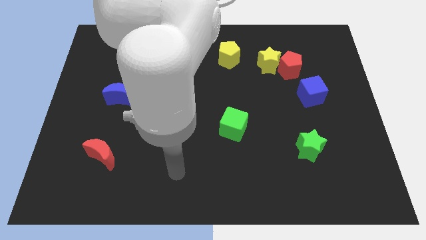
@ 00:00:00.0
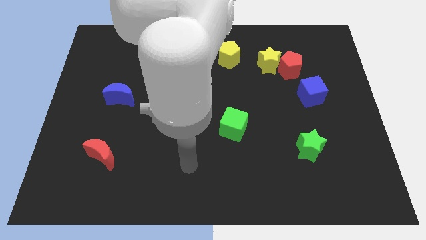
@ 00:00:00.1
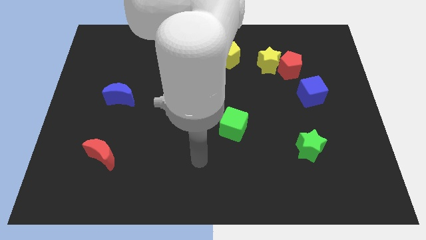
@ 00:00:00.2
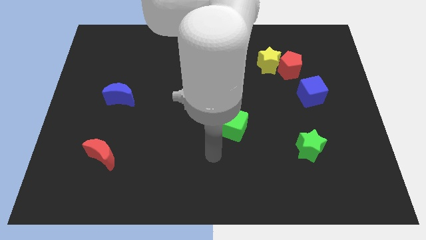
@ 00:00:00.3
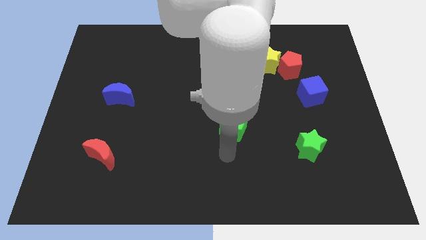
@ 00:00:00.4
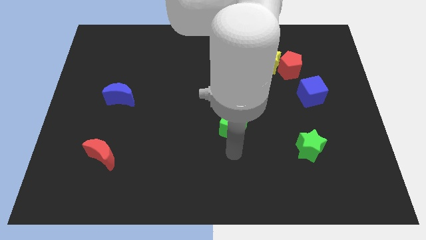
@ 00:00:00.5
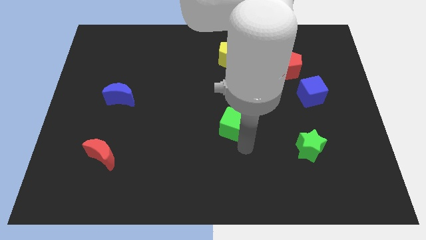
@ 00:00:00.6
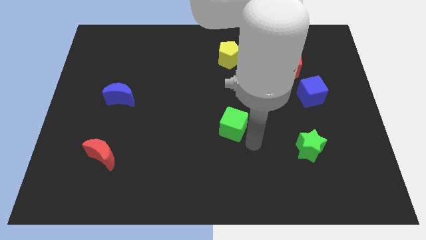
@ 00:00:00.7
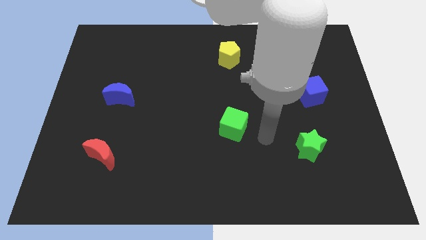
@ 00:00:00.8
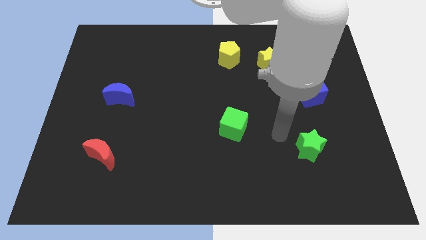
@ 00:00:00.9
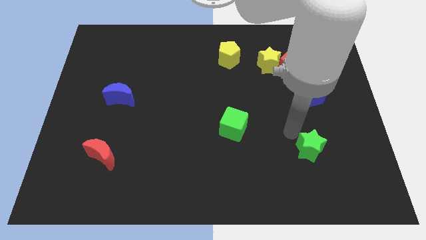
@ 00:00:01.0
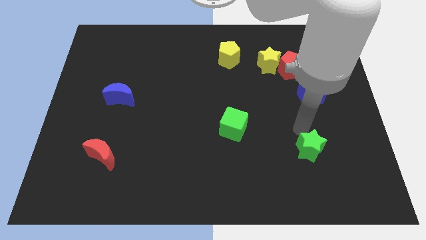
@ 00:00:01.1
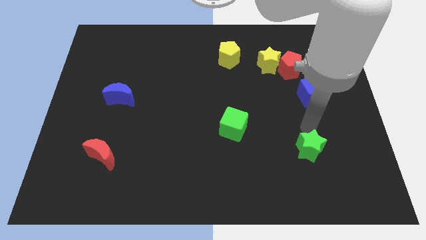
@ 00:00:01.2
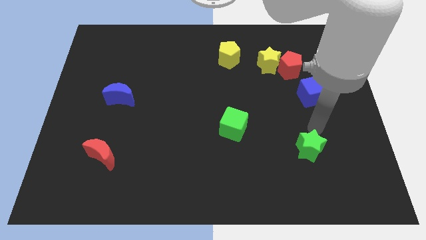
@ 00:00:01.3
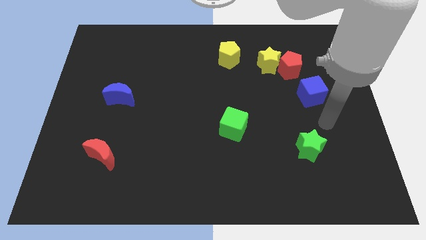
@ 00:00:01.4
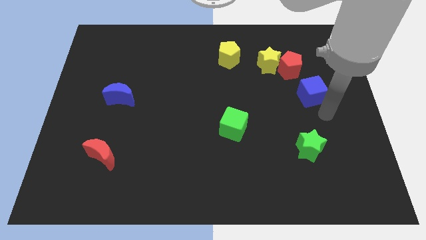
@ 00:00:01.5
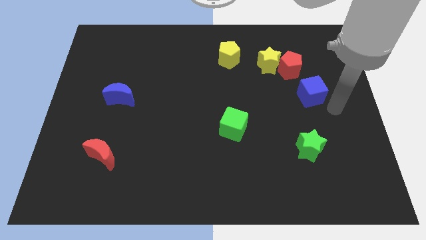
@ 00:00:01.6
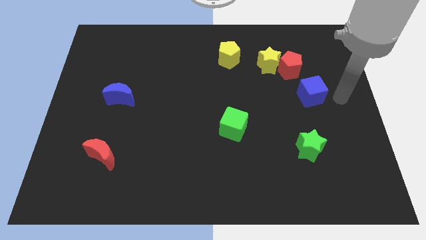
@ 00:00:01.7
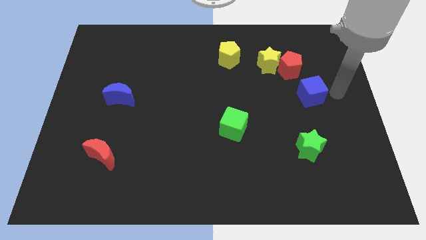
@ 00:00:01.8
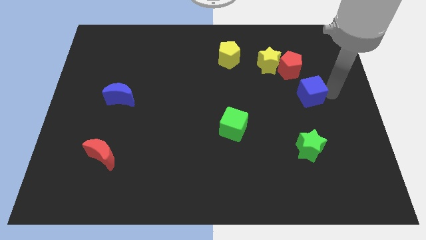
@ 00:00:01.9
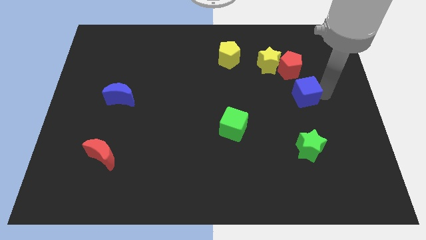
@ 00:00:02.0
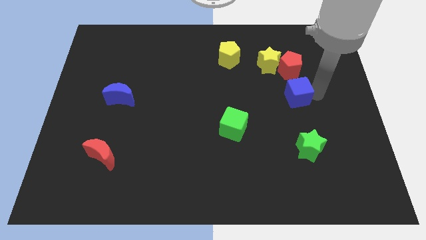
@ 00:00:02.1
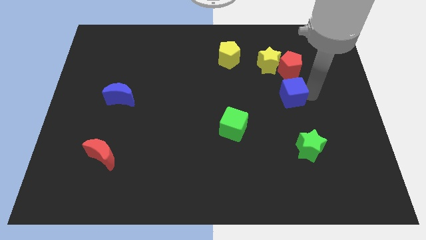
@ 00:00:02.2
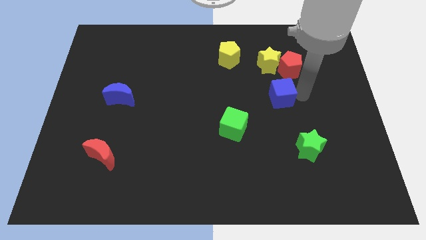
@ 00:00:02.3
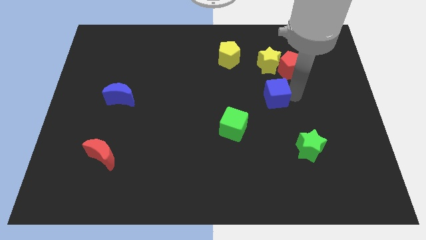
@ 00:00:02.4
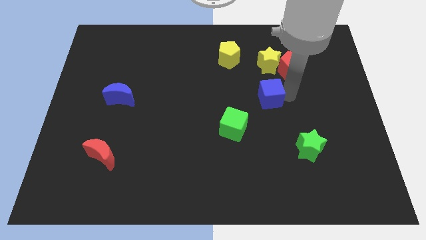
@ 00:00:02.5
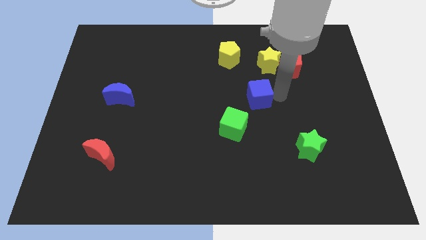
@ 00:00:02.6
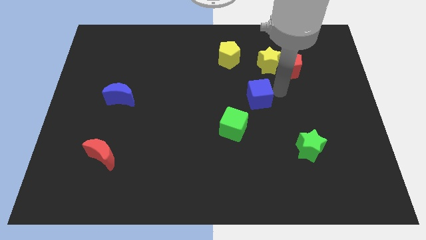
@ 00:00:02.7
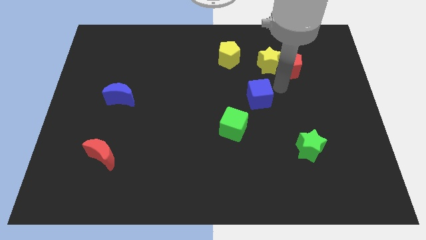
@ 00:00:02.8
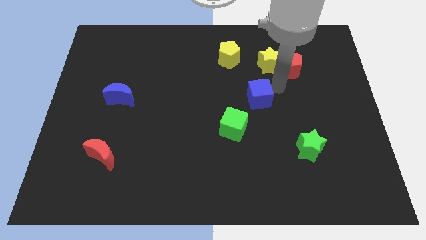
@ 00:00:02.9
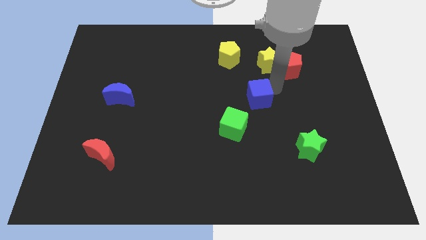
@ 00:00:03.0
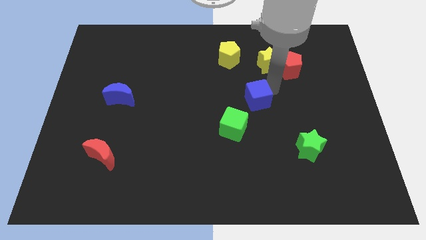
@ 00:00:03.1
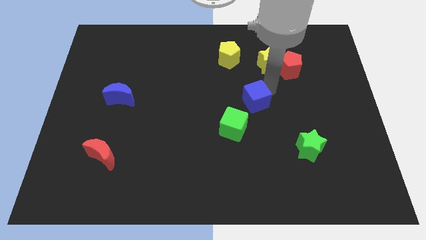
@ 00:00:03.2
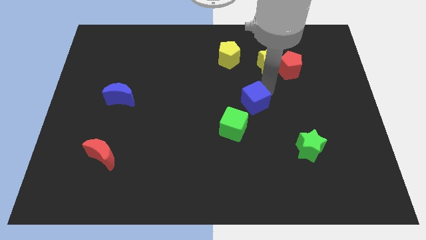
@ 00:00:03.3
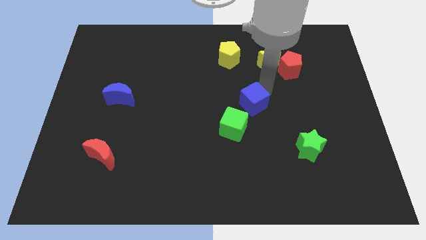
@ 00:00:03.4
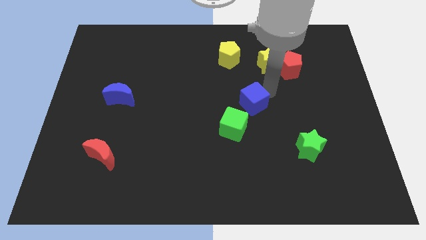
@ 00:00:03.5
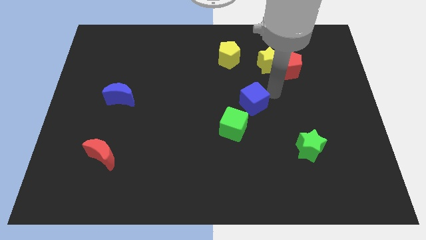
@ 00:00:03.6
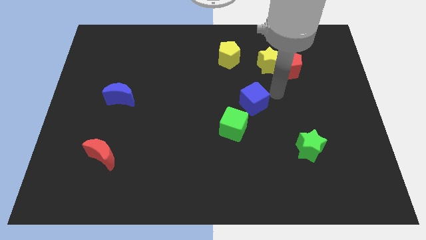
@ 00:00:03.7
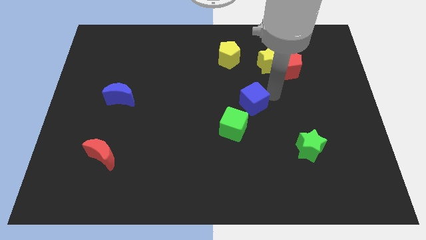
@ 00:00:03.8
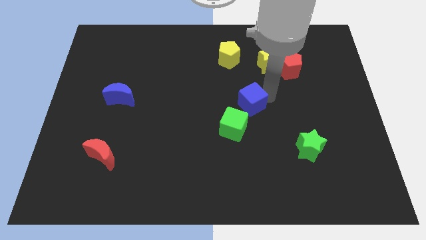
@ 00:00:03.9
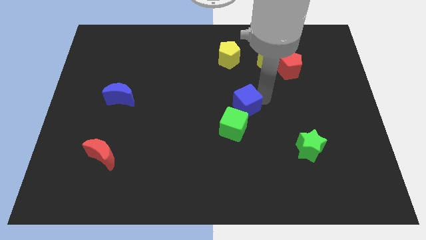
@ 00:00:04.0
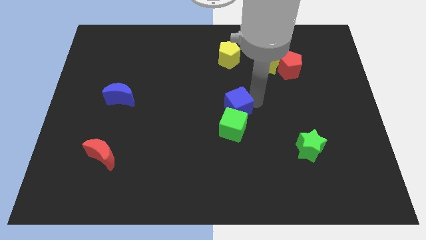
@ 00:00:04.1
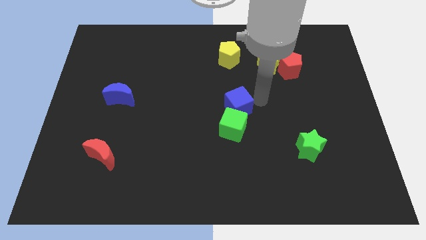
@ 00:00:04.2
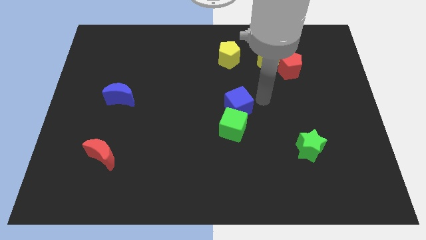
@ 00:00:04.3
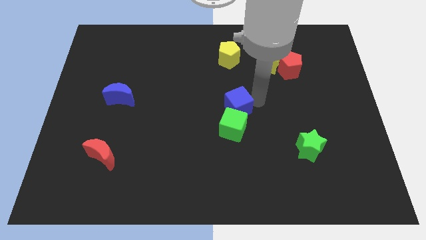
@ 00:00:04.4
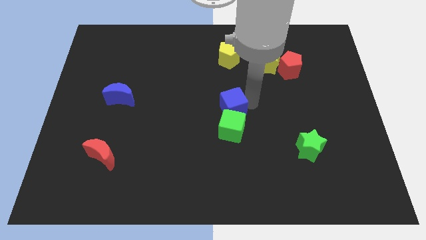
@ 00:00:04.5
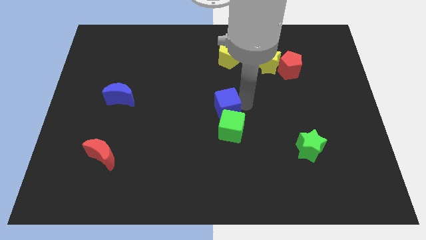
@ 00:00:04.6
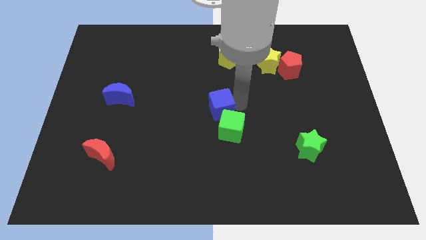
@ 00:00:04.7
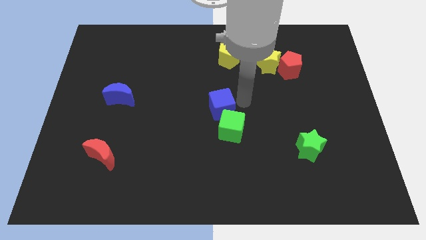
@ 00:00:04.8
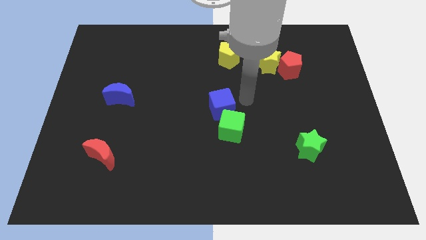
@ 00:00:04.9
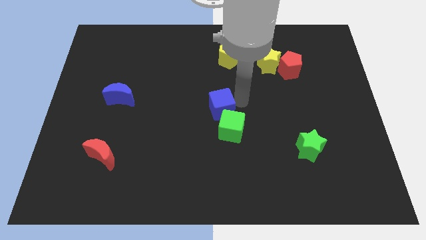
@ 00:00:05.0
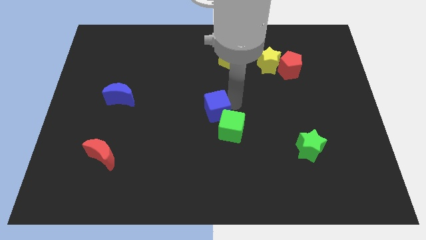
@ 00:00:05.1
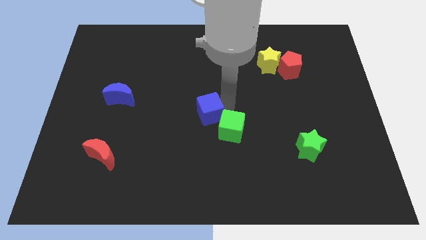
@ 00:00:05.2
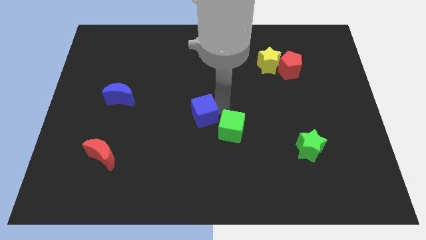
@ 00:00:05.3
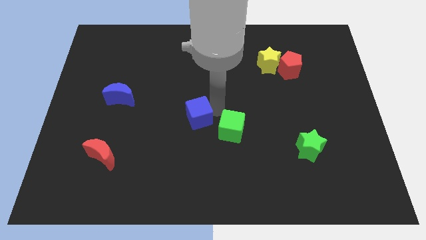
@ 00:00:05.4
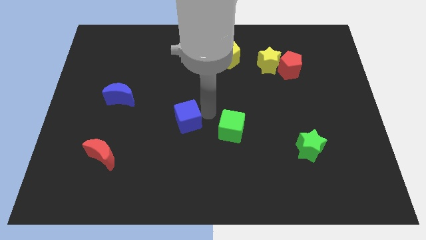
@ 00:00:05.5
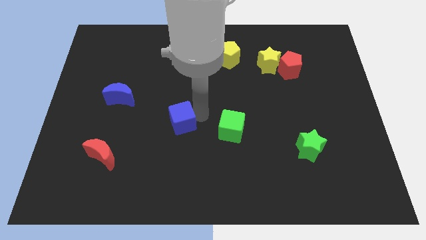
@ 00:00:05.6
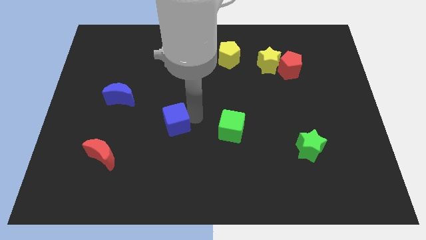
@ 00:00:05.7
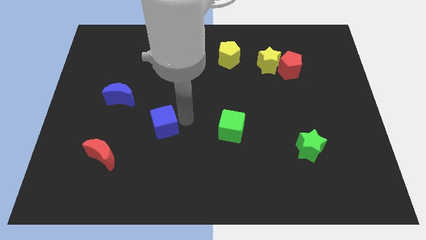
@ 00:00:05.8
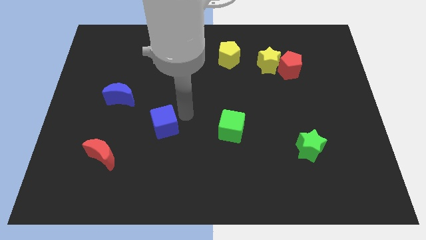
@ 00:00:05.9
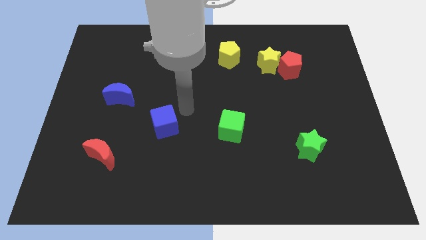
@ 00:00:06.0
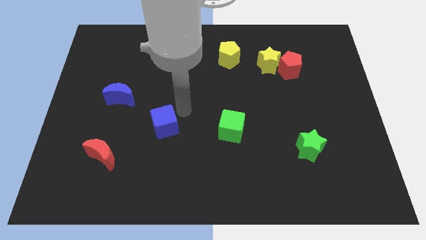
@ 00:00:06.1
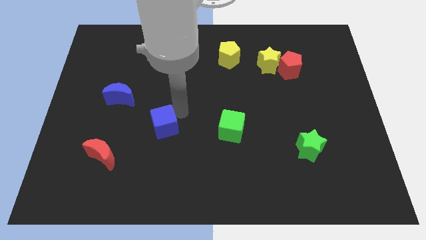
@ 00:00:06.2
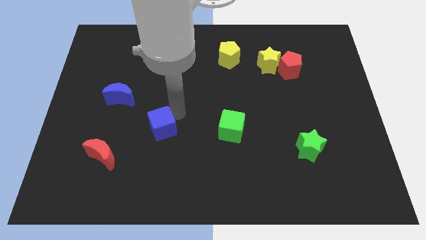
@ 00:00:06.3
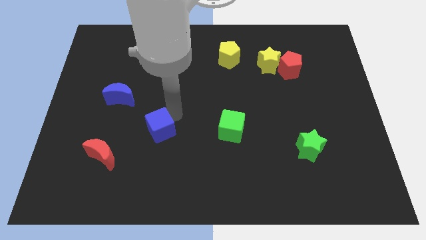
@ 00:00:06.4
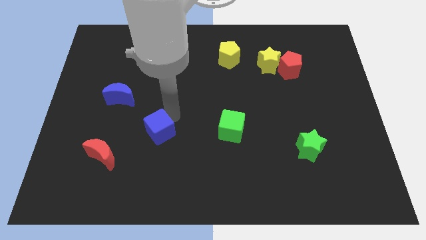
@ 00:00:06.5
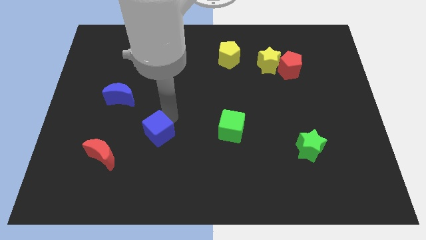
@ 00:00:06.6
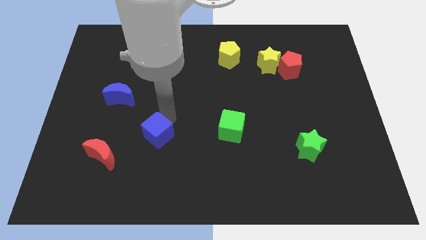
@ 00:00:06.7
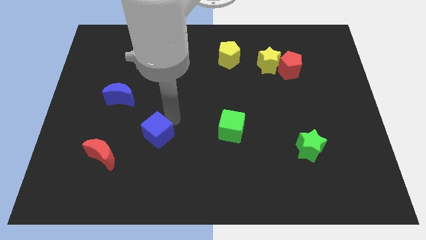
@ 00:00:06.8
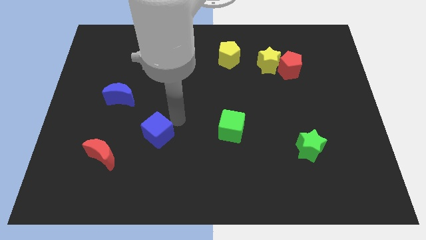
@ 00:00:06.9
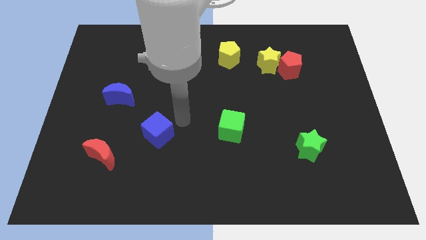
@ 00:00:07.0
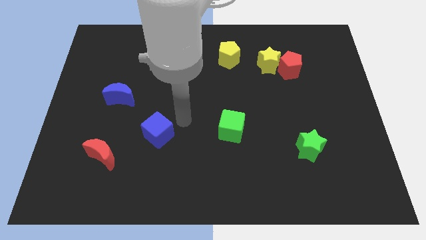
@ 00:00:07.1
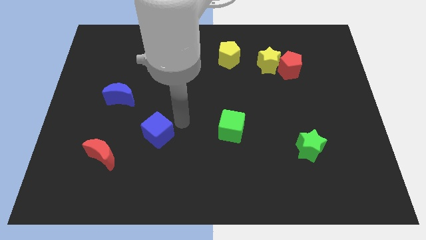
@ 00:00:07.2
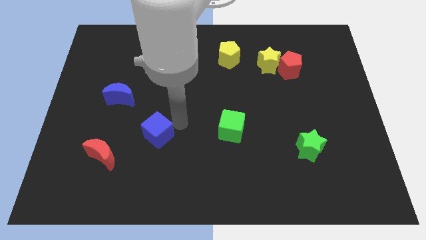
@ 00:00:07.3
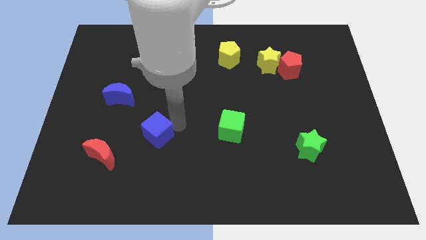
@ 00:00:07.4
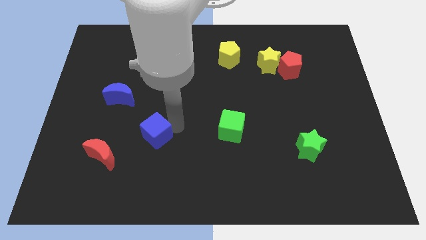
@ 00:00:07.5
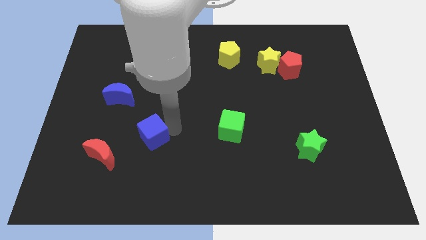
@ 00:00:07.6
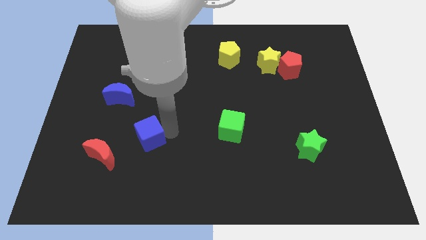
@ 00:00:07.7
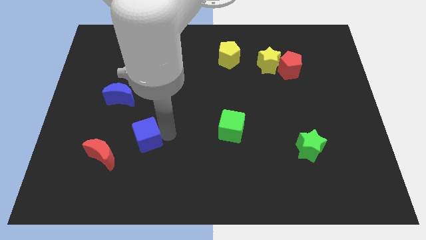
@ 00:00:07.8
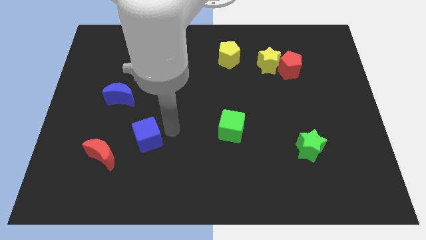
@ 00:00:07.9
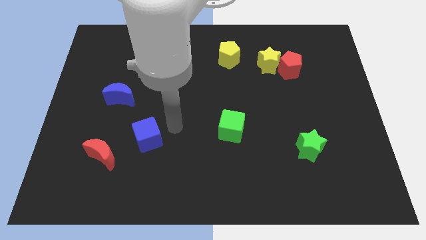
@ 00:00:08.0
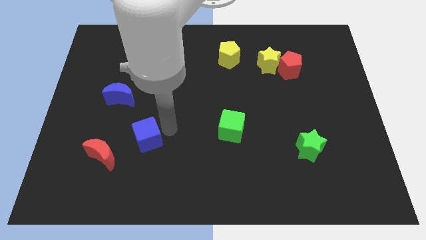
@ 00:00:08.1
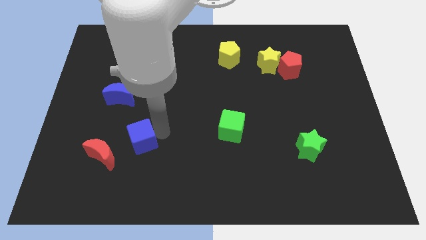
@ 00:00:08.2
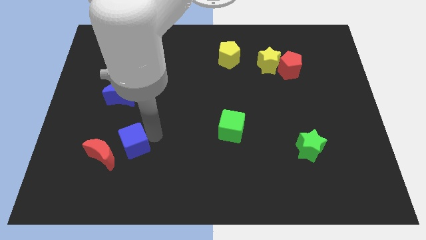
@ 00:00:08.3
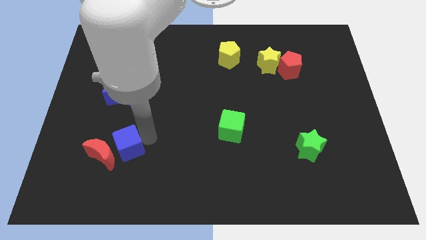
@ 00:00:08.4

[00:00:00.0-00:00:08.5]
slide the blue cube to the red moon
